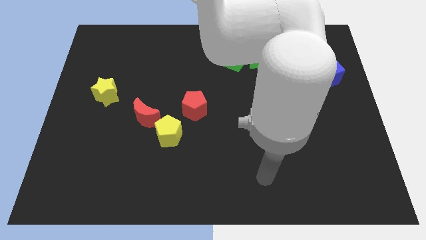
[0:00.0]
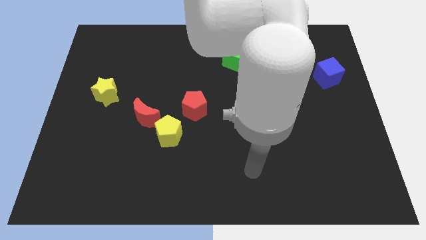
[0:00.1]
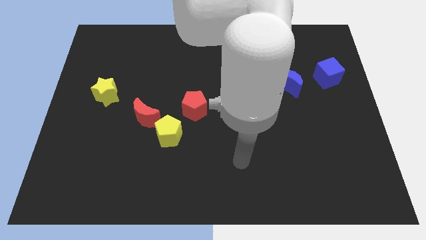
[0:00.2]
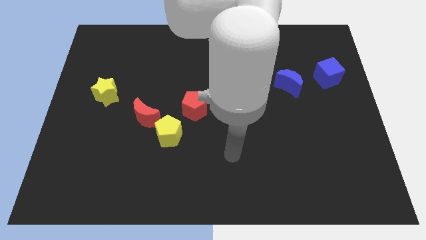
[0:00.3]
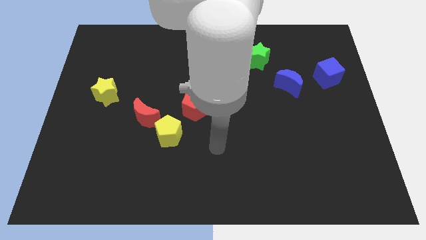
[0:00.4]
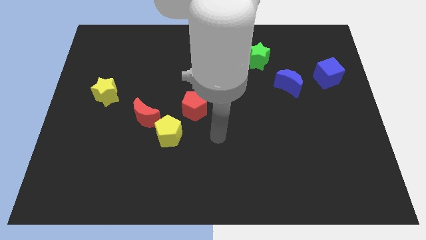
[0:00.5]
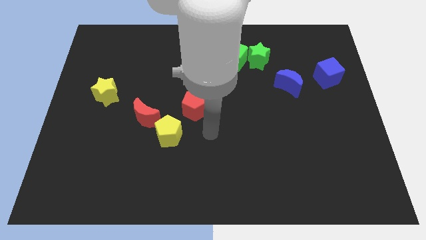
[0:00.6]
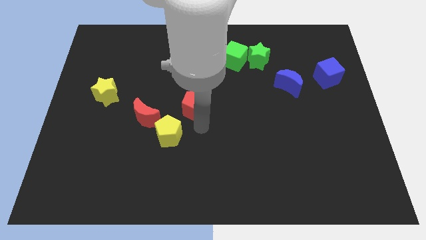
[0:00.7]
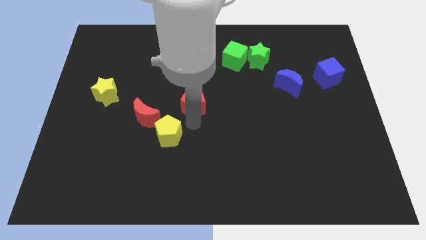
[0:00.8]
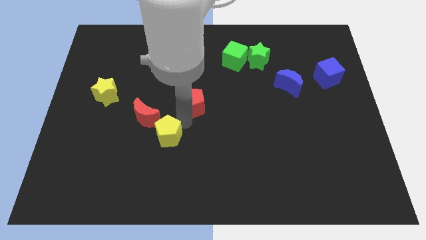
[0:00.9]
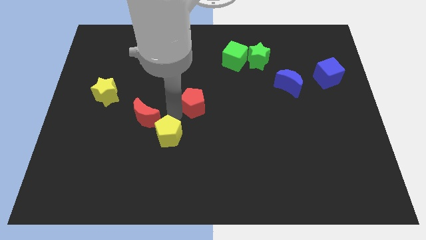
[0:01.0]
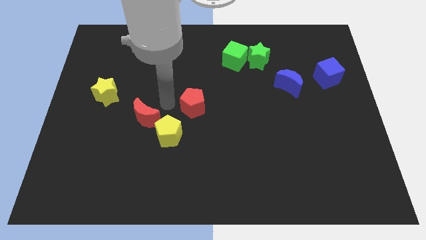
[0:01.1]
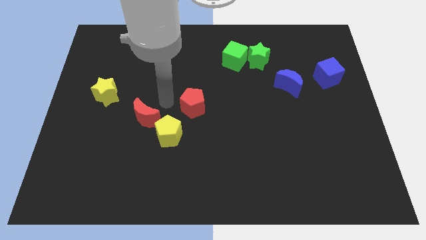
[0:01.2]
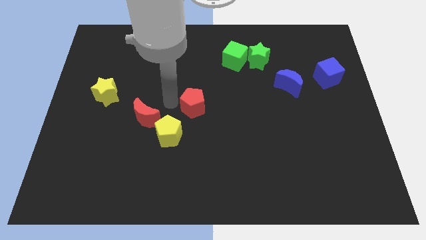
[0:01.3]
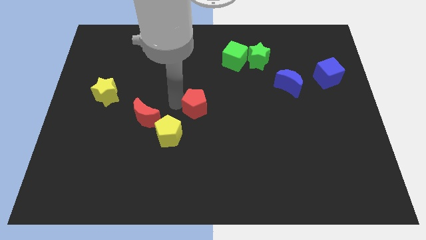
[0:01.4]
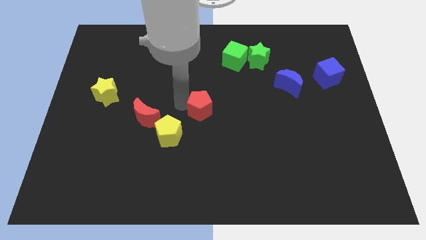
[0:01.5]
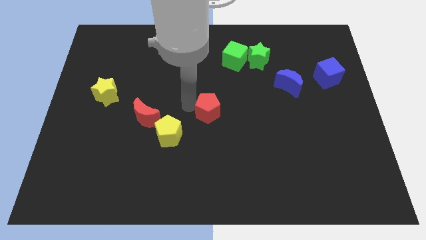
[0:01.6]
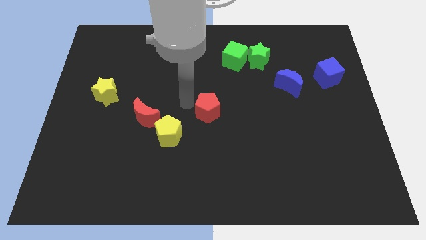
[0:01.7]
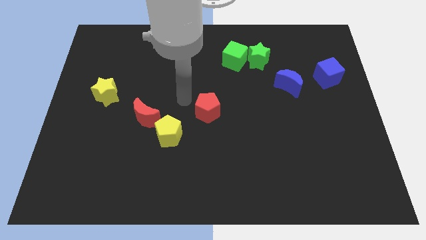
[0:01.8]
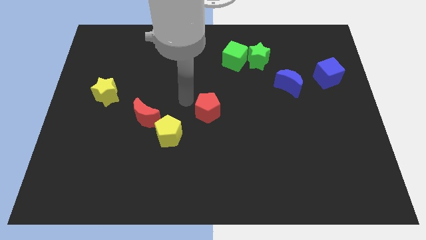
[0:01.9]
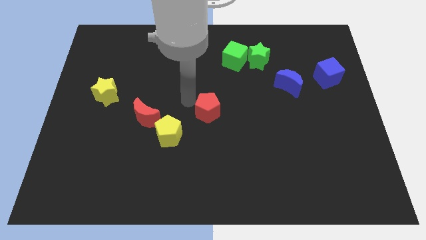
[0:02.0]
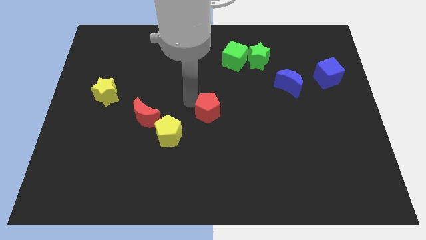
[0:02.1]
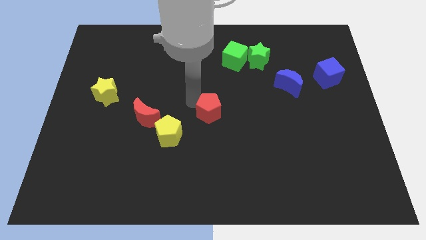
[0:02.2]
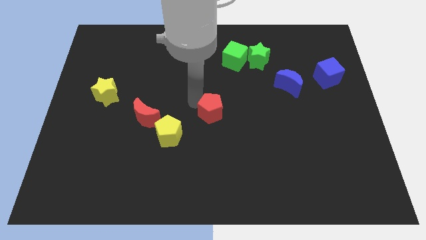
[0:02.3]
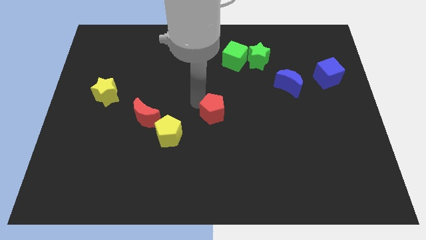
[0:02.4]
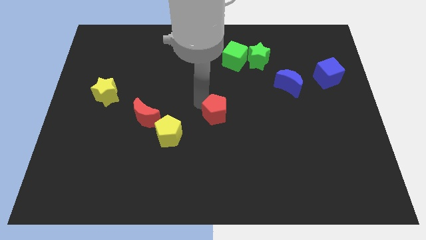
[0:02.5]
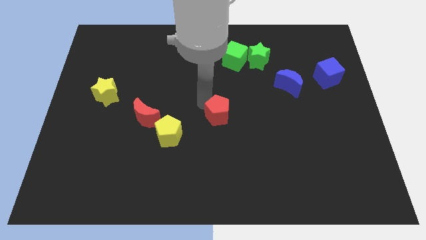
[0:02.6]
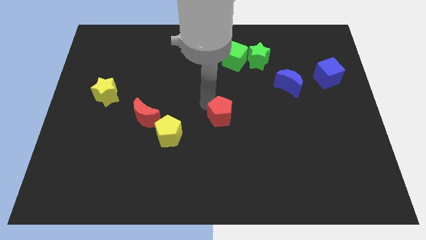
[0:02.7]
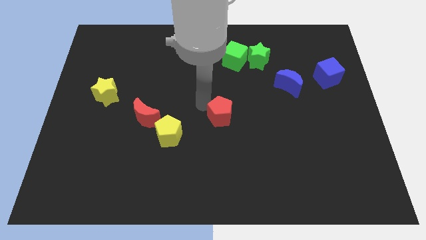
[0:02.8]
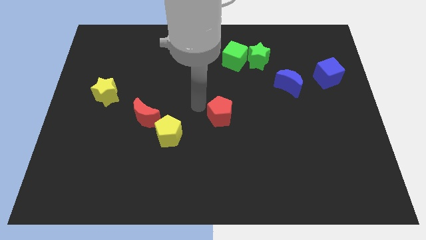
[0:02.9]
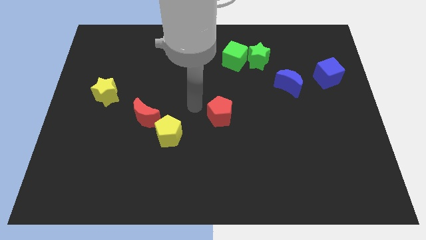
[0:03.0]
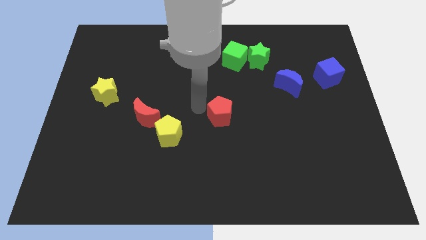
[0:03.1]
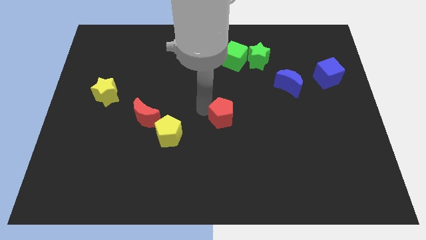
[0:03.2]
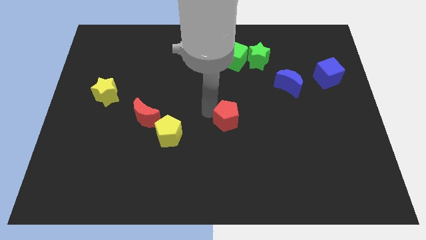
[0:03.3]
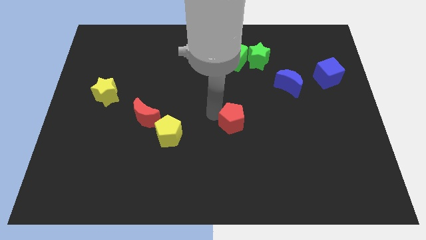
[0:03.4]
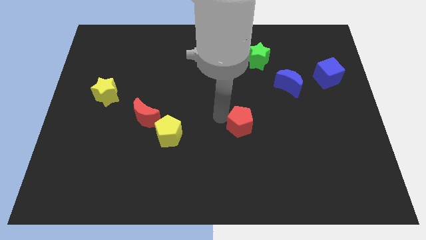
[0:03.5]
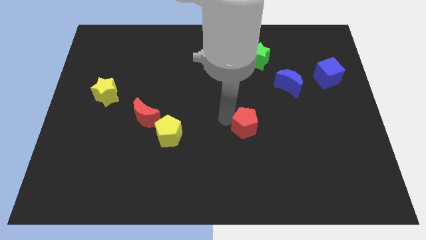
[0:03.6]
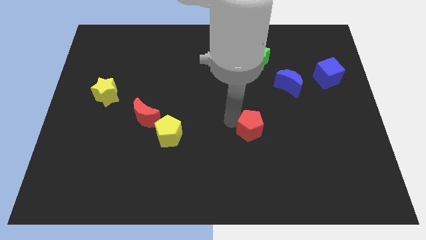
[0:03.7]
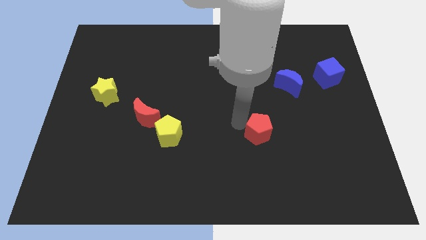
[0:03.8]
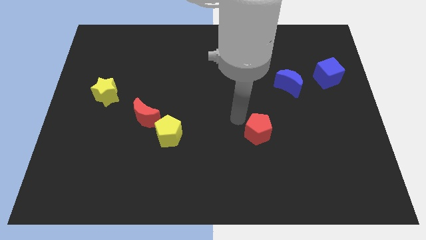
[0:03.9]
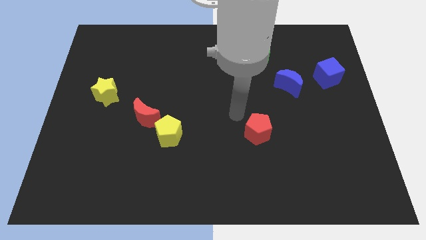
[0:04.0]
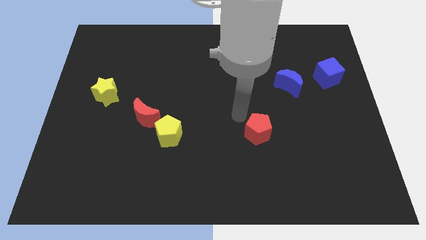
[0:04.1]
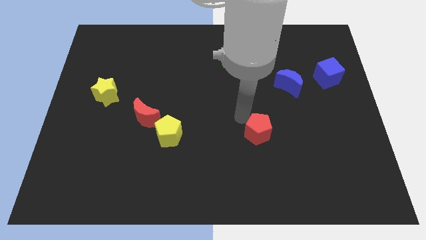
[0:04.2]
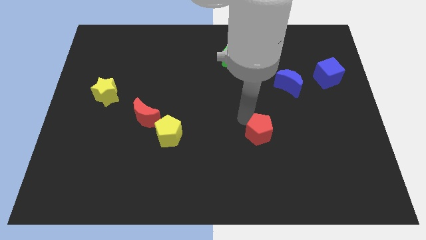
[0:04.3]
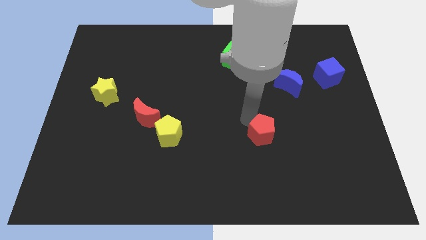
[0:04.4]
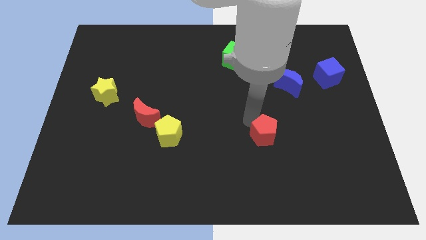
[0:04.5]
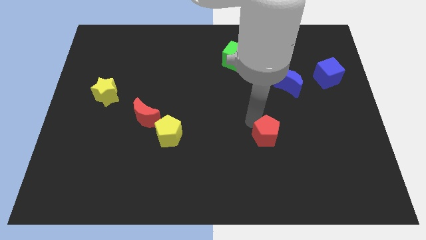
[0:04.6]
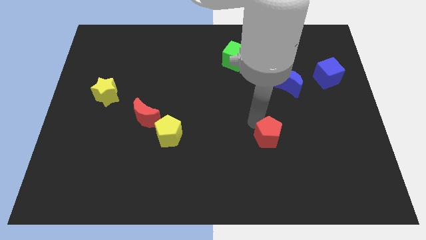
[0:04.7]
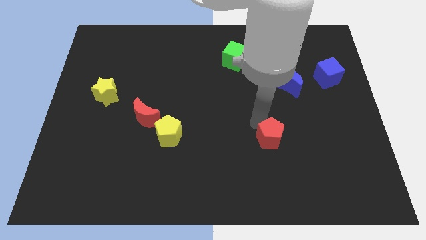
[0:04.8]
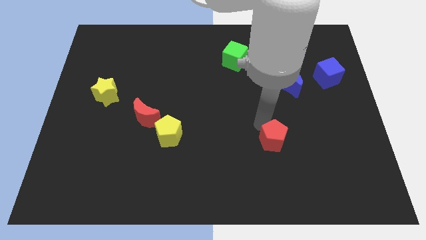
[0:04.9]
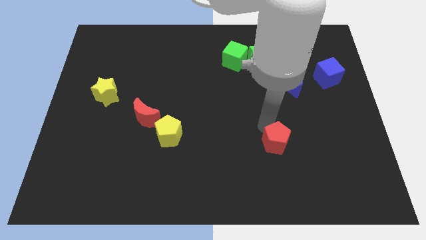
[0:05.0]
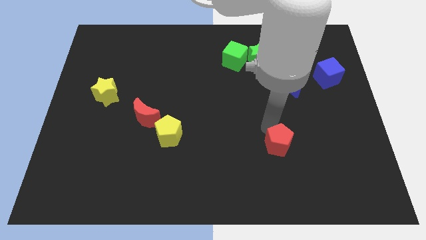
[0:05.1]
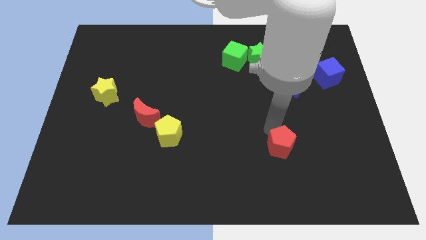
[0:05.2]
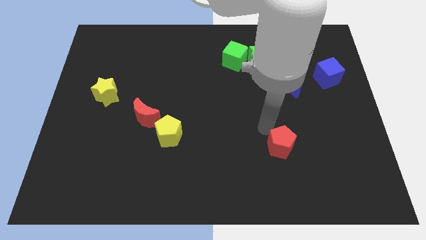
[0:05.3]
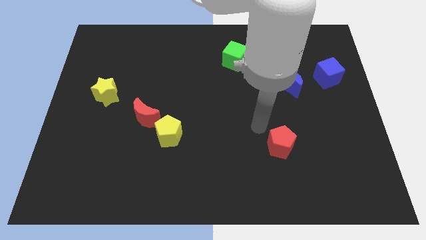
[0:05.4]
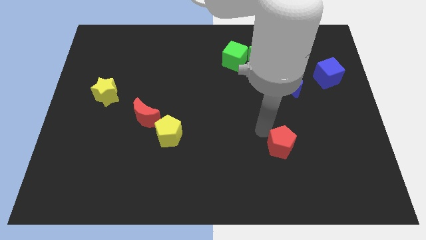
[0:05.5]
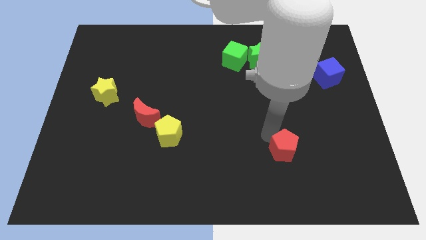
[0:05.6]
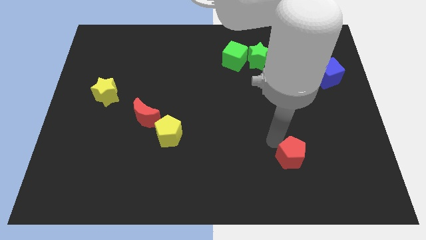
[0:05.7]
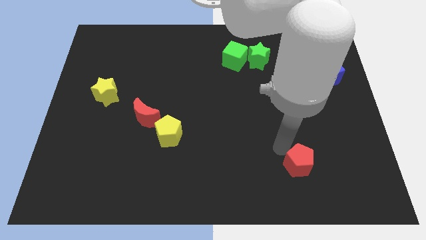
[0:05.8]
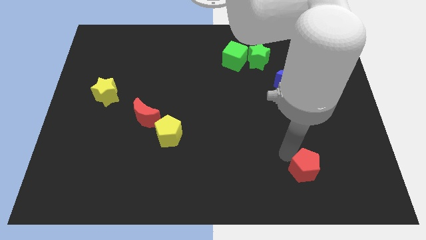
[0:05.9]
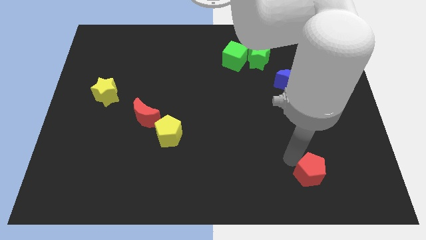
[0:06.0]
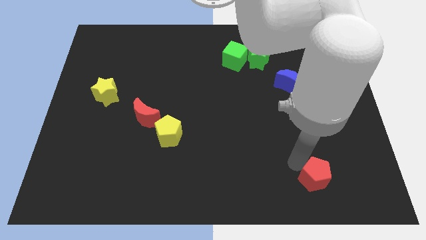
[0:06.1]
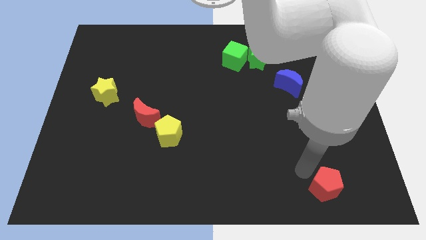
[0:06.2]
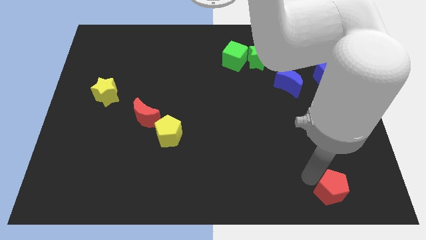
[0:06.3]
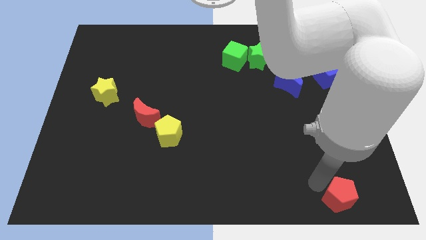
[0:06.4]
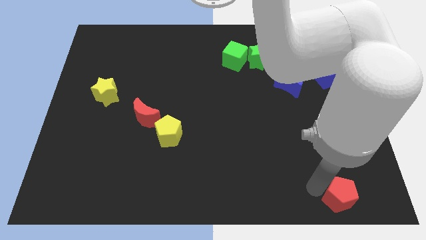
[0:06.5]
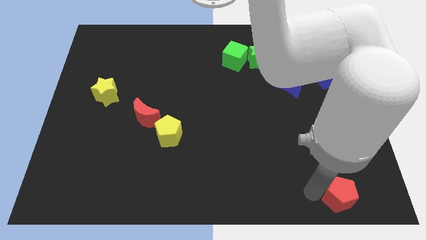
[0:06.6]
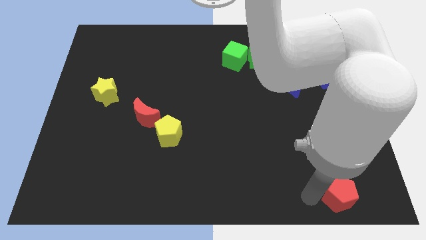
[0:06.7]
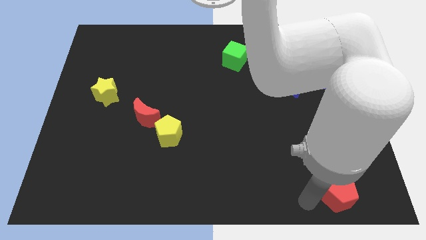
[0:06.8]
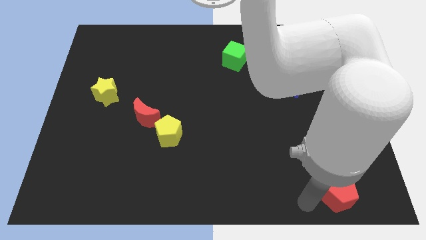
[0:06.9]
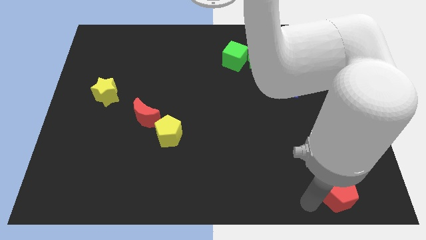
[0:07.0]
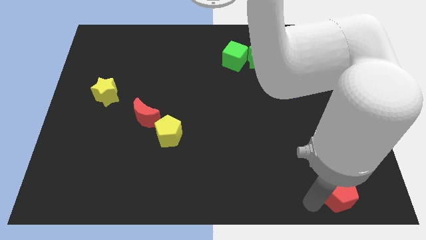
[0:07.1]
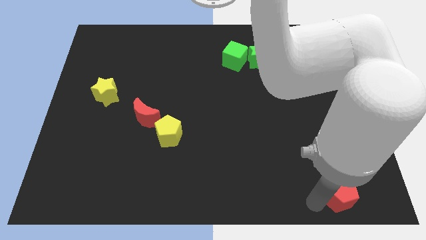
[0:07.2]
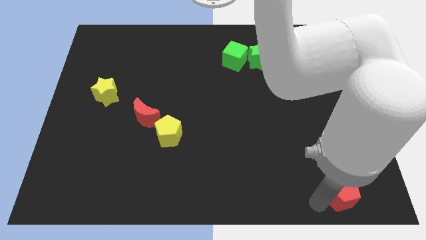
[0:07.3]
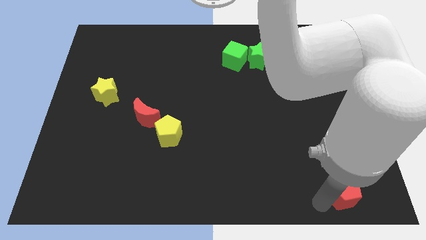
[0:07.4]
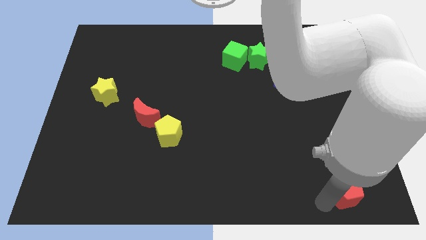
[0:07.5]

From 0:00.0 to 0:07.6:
put the red pentagon to the bottom right
